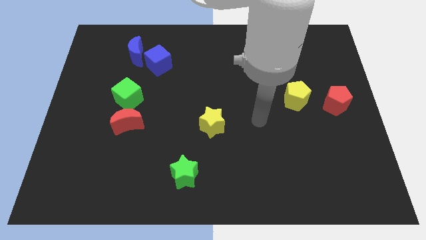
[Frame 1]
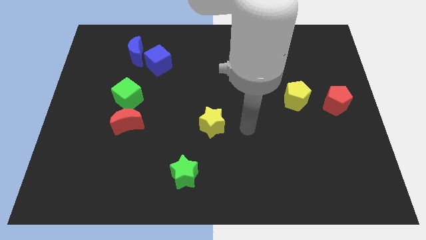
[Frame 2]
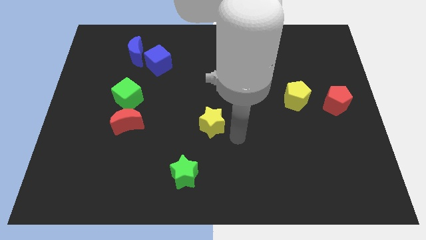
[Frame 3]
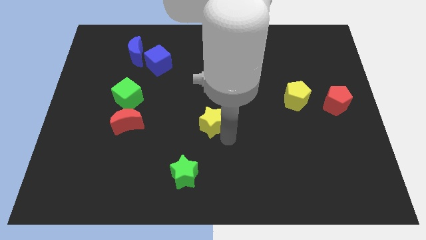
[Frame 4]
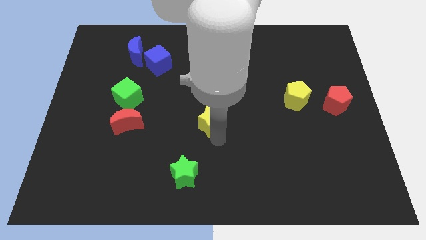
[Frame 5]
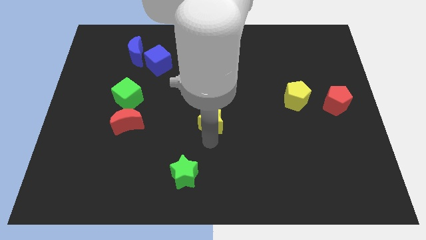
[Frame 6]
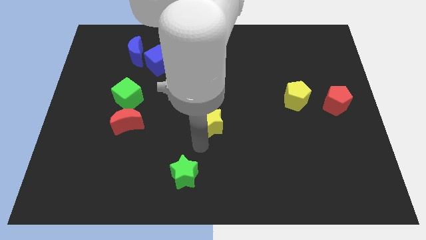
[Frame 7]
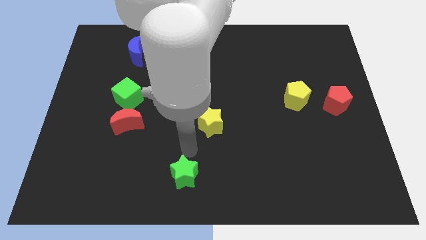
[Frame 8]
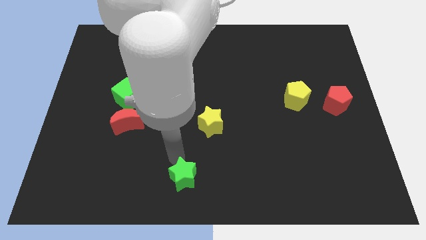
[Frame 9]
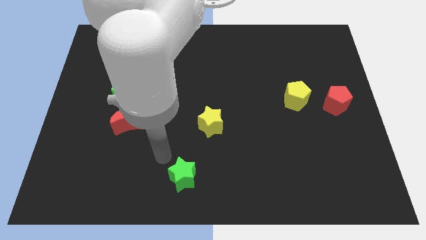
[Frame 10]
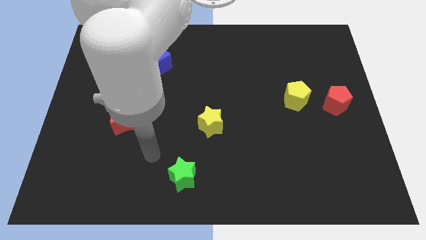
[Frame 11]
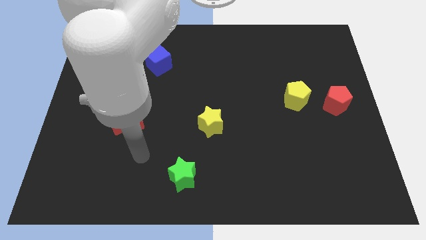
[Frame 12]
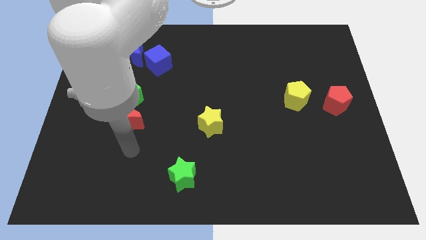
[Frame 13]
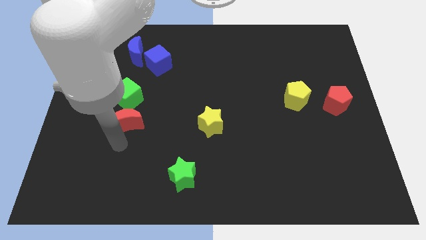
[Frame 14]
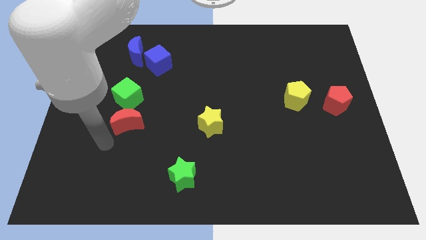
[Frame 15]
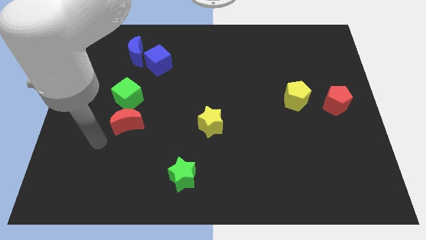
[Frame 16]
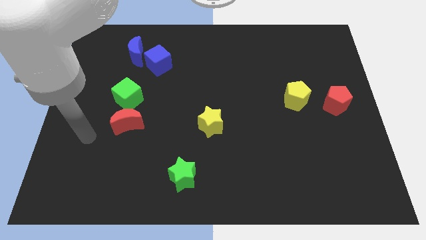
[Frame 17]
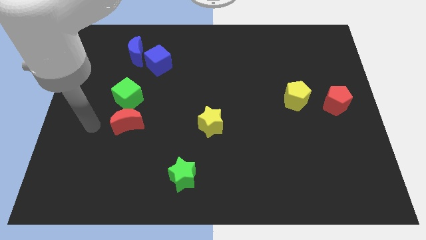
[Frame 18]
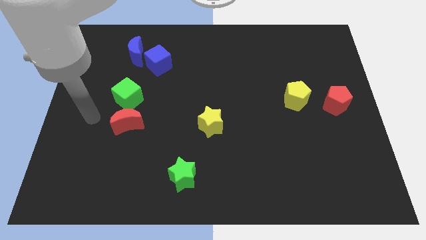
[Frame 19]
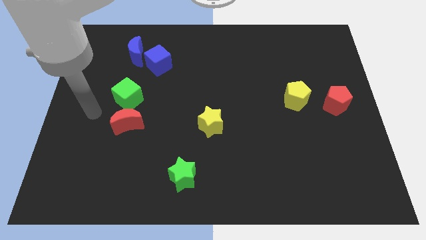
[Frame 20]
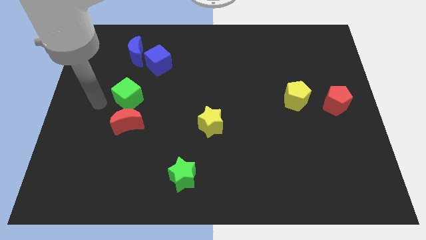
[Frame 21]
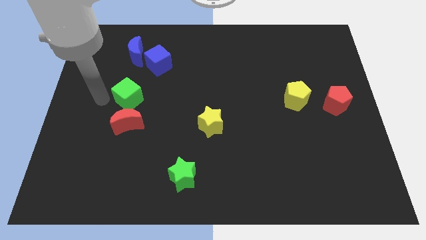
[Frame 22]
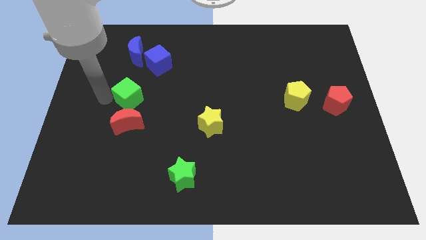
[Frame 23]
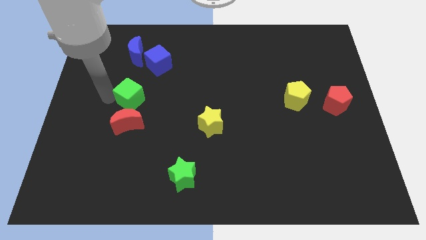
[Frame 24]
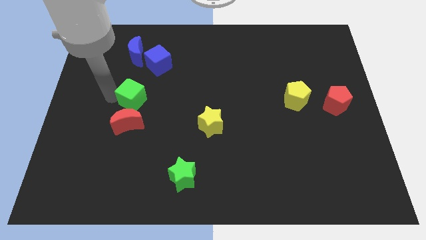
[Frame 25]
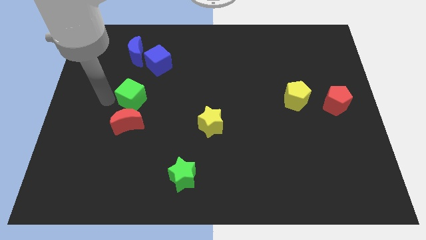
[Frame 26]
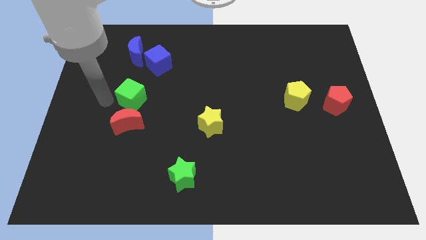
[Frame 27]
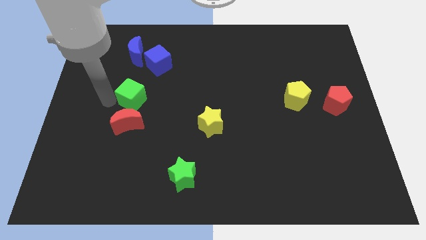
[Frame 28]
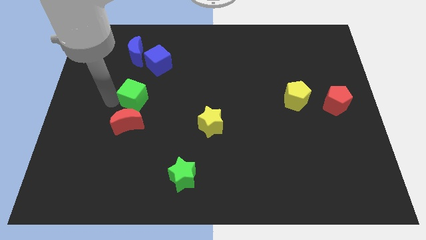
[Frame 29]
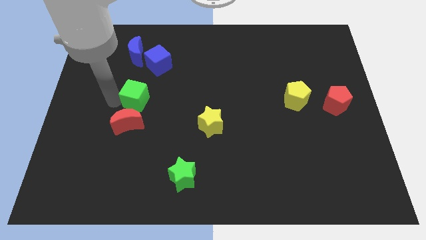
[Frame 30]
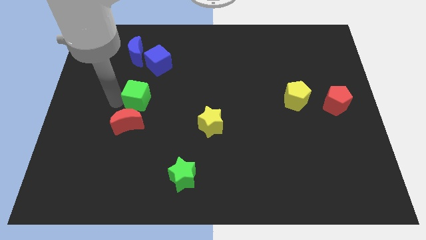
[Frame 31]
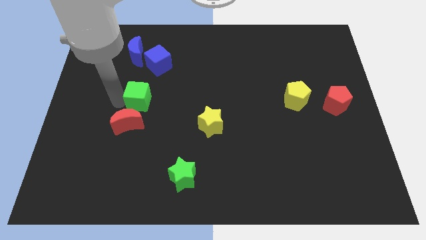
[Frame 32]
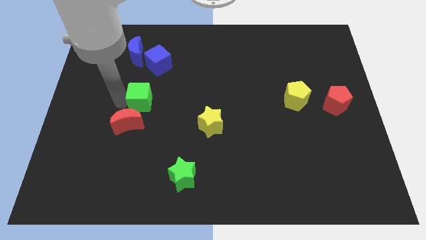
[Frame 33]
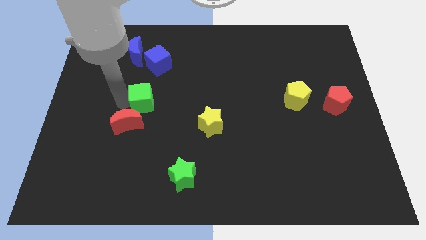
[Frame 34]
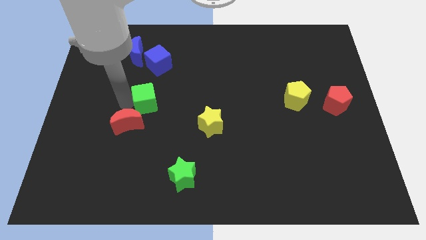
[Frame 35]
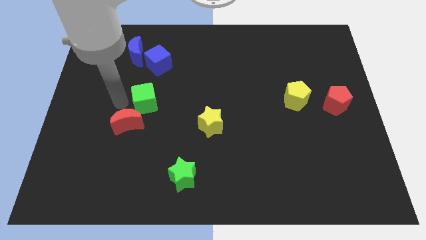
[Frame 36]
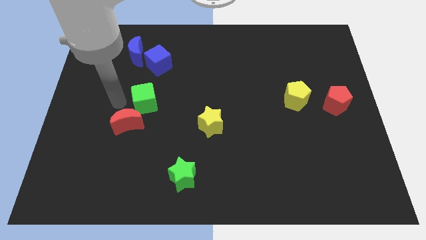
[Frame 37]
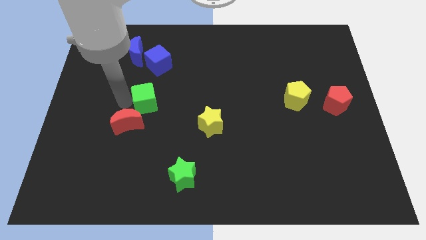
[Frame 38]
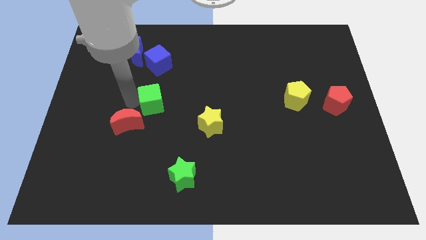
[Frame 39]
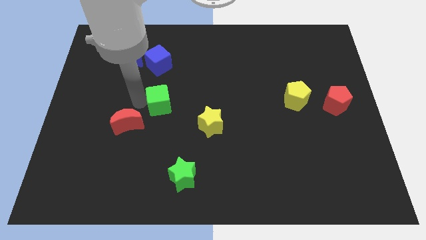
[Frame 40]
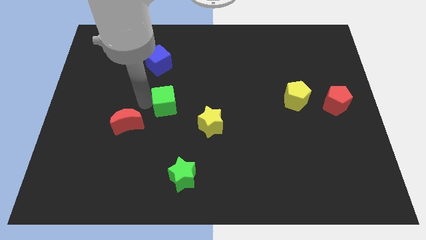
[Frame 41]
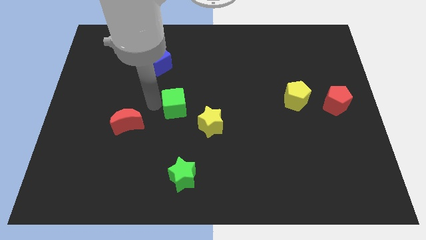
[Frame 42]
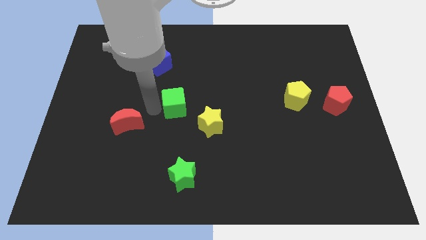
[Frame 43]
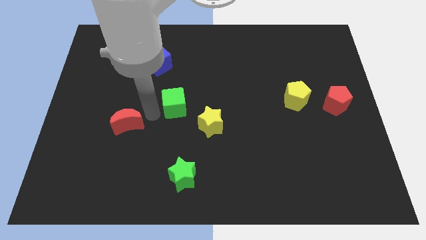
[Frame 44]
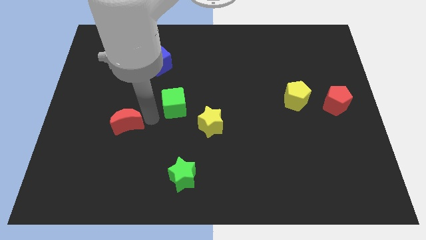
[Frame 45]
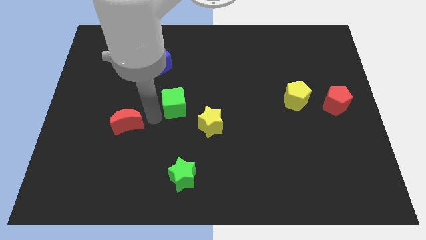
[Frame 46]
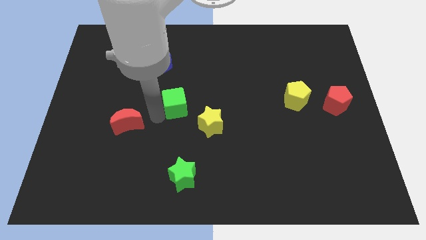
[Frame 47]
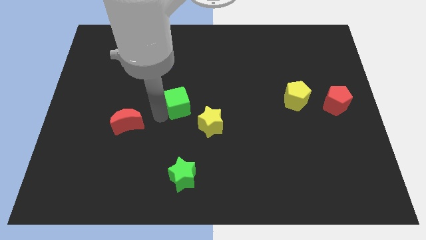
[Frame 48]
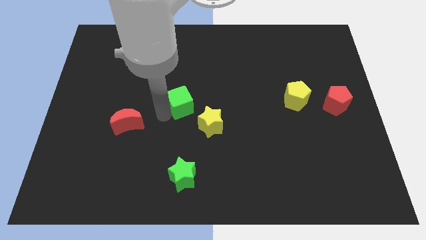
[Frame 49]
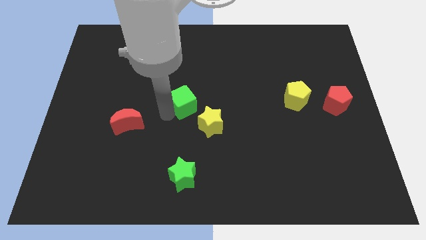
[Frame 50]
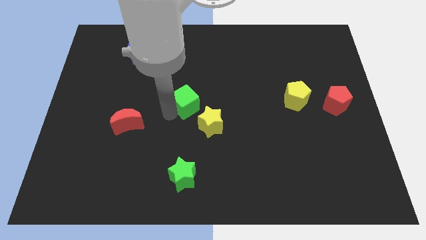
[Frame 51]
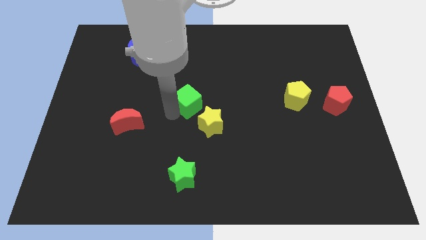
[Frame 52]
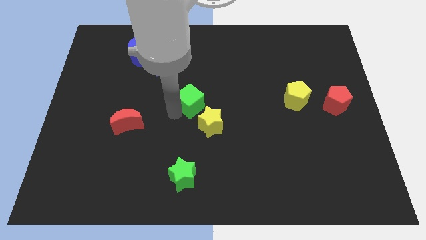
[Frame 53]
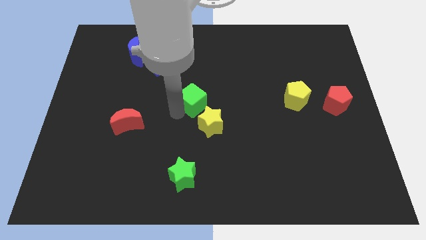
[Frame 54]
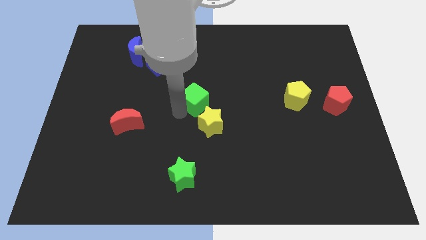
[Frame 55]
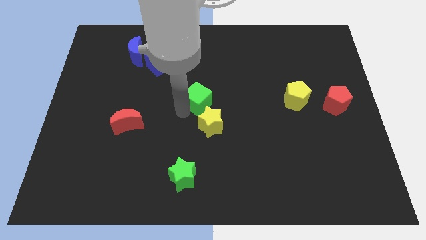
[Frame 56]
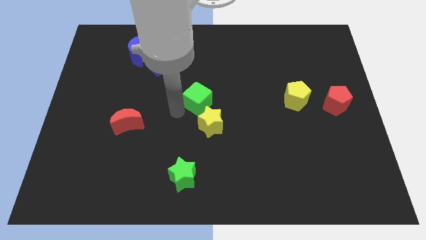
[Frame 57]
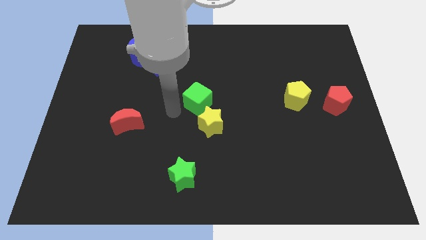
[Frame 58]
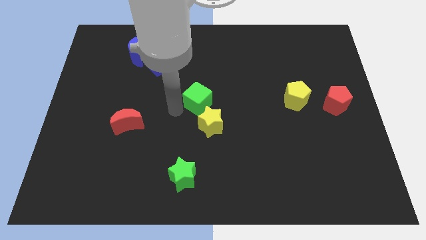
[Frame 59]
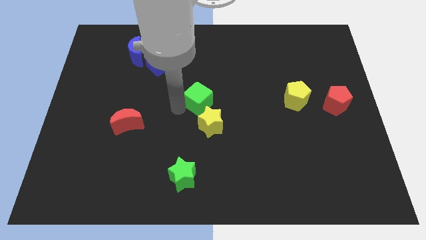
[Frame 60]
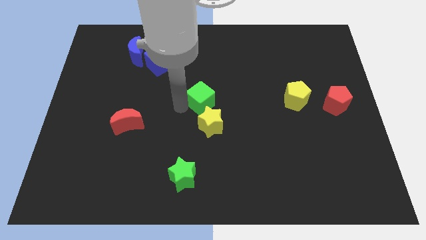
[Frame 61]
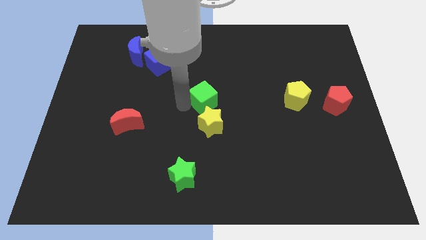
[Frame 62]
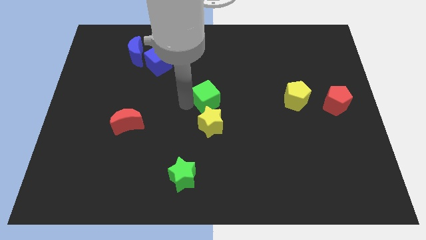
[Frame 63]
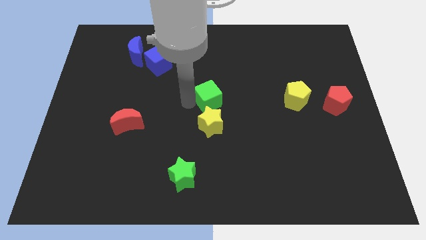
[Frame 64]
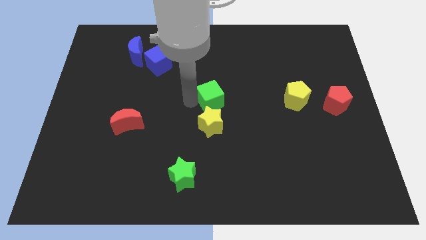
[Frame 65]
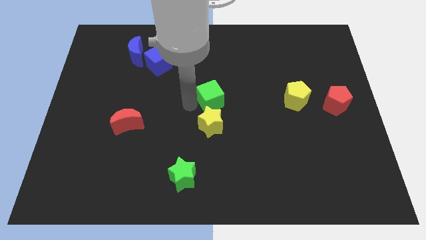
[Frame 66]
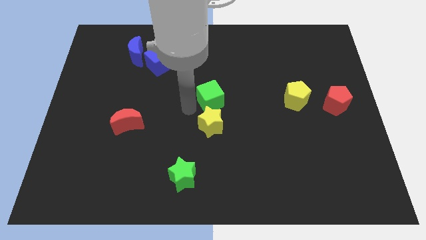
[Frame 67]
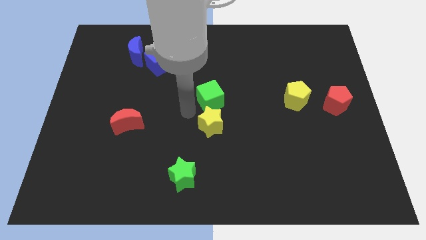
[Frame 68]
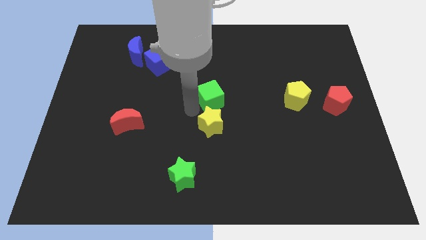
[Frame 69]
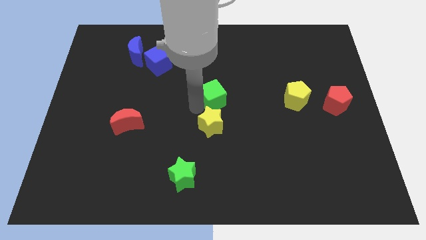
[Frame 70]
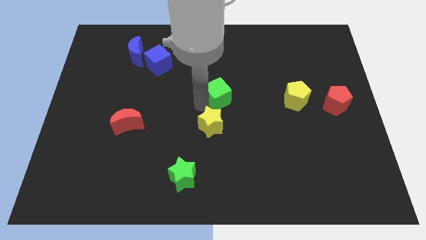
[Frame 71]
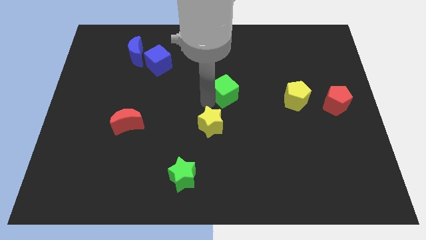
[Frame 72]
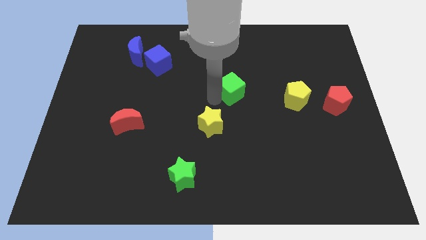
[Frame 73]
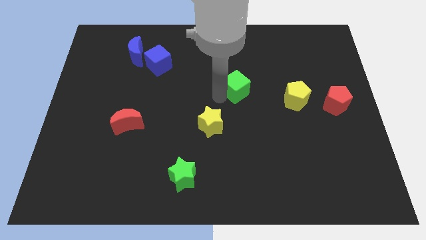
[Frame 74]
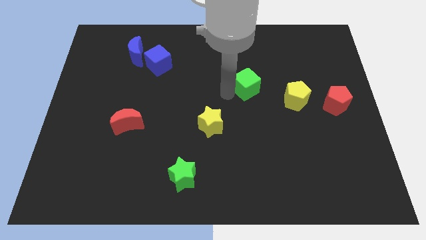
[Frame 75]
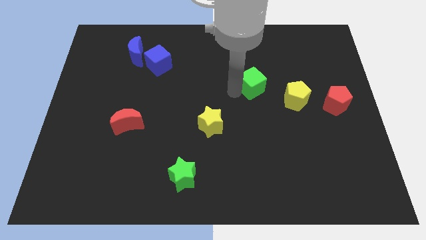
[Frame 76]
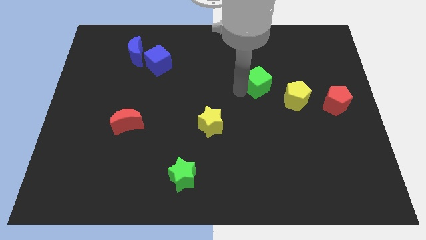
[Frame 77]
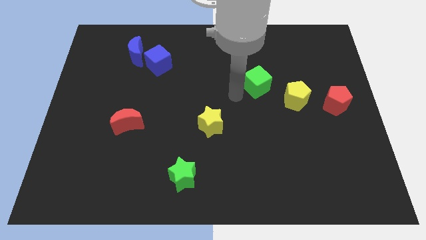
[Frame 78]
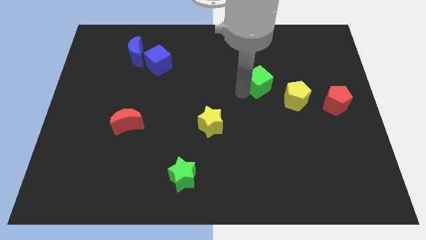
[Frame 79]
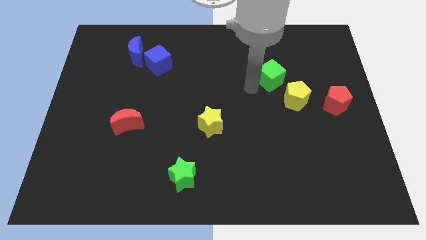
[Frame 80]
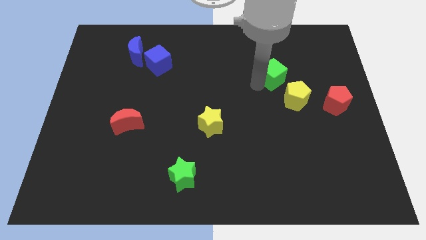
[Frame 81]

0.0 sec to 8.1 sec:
put the green cube to the top of the yellow pentagon
